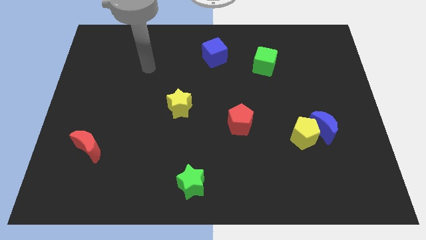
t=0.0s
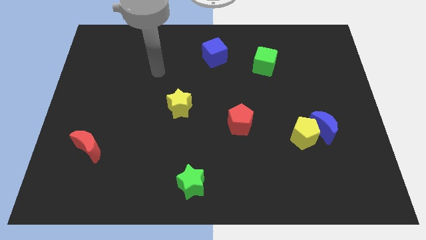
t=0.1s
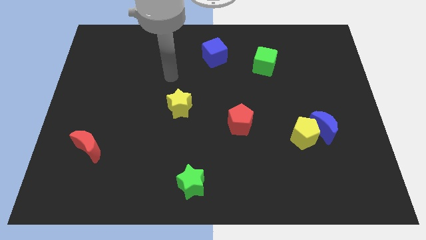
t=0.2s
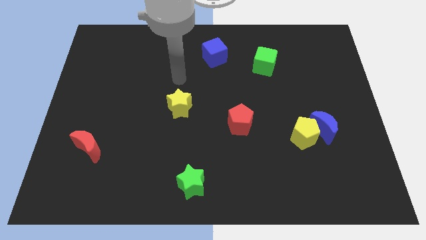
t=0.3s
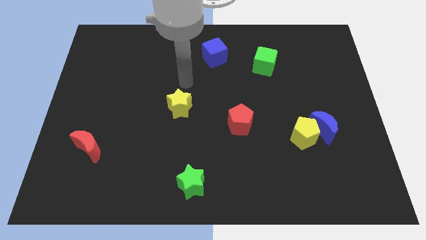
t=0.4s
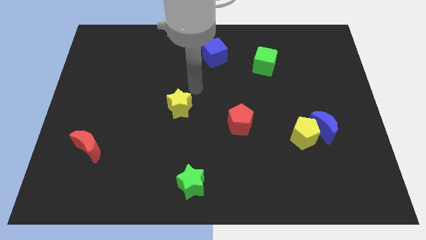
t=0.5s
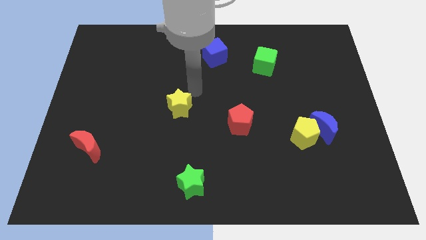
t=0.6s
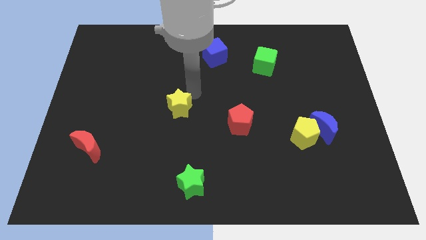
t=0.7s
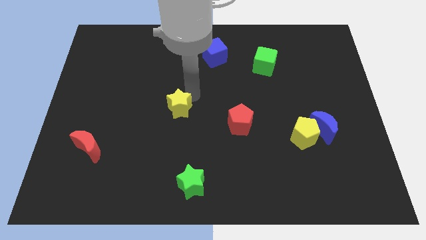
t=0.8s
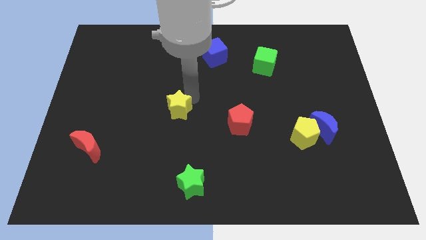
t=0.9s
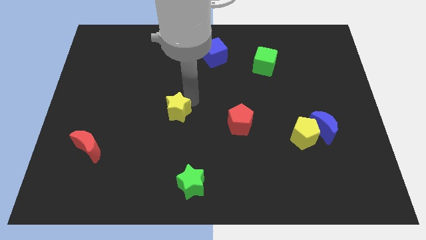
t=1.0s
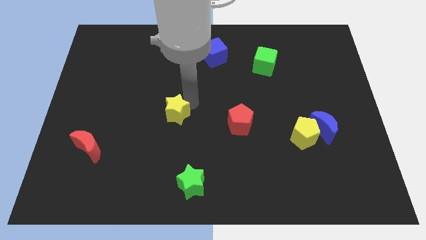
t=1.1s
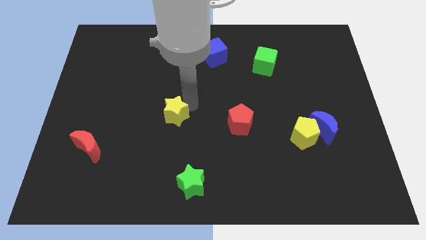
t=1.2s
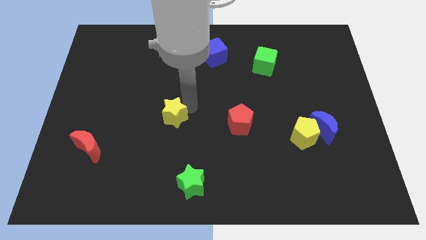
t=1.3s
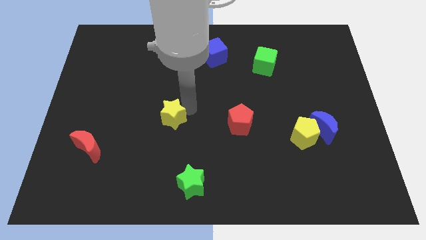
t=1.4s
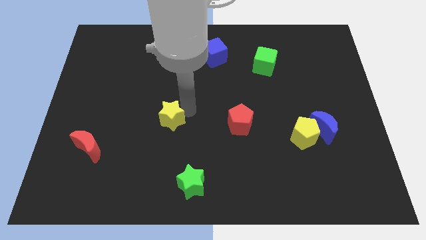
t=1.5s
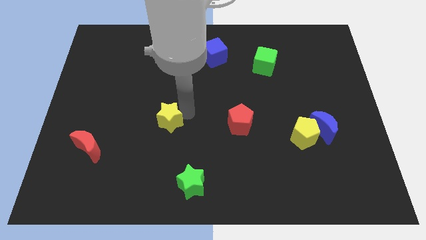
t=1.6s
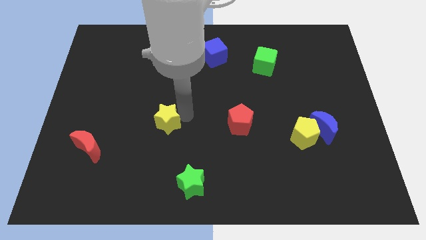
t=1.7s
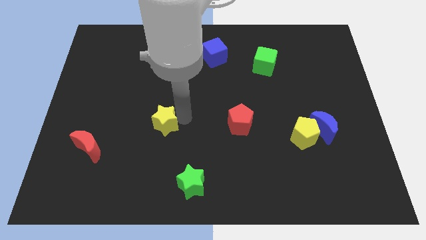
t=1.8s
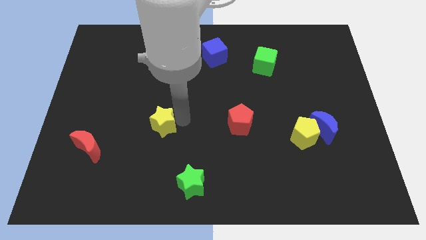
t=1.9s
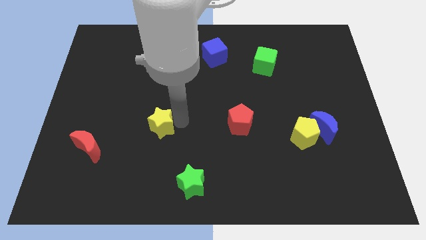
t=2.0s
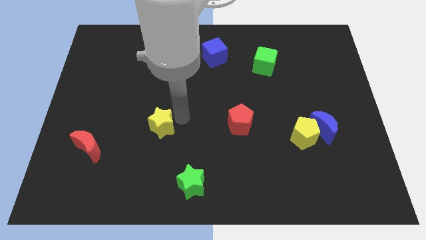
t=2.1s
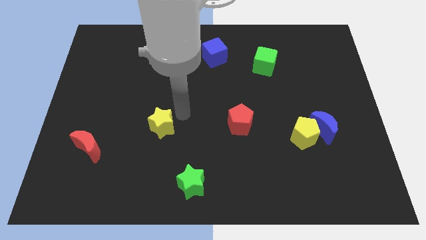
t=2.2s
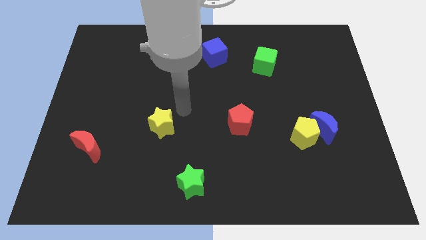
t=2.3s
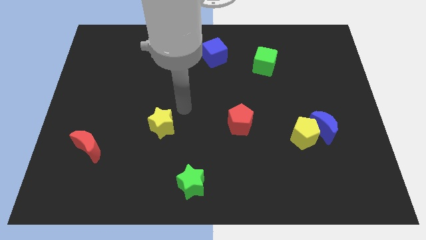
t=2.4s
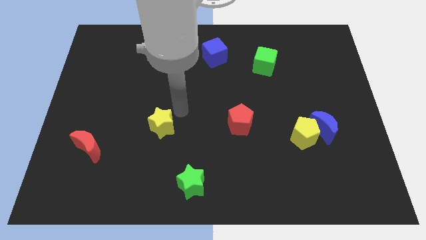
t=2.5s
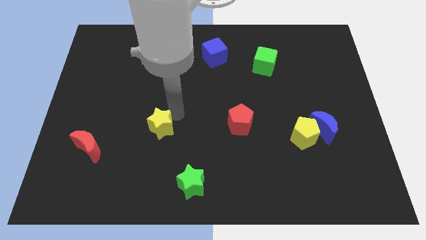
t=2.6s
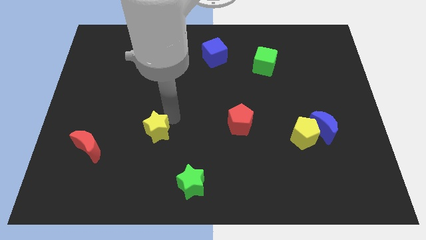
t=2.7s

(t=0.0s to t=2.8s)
move the yellow star downwards and left a bit

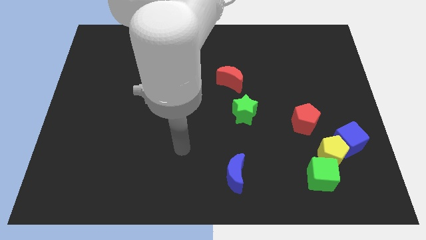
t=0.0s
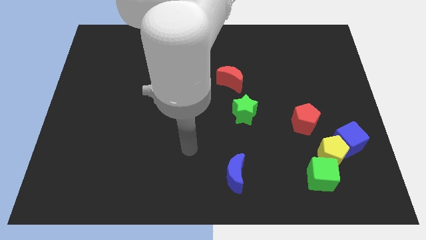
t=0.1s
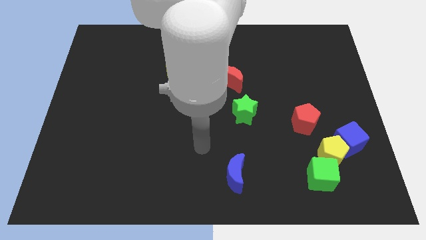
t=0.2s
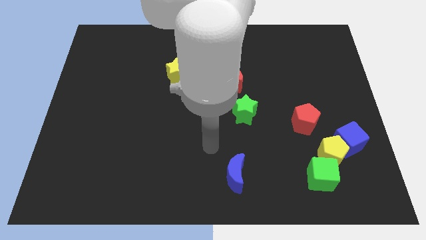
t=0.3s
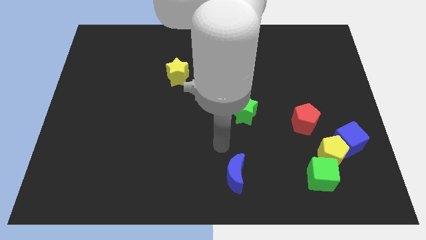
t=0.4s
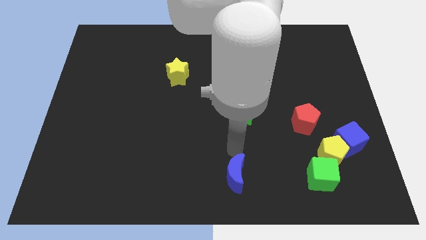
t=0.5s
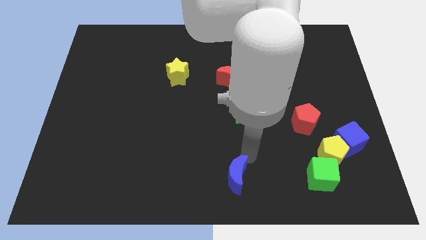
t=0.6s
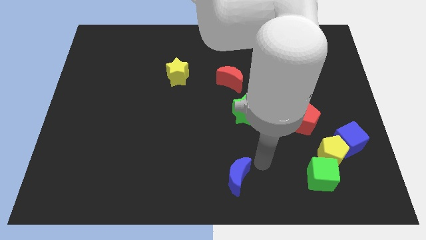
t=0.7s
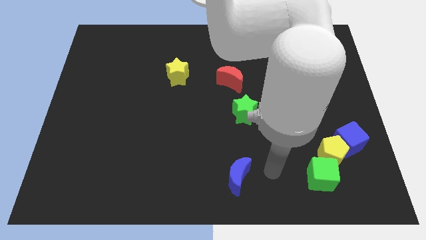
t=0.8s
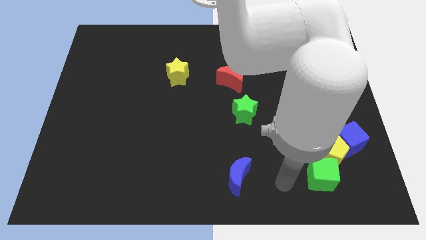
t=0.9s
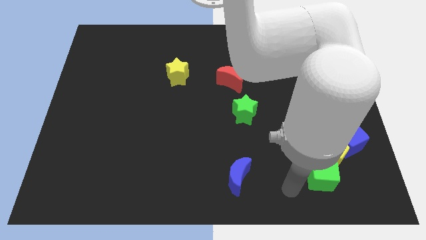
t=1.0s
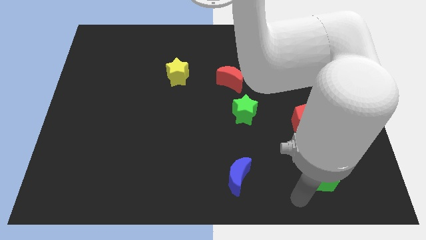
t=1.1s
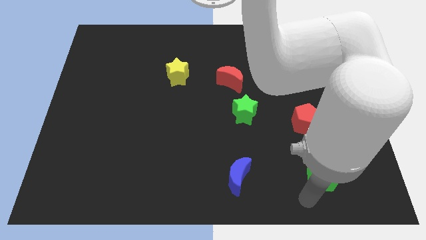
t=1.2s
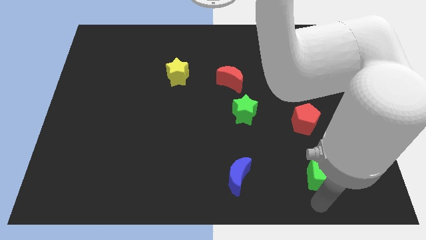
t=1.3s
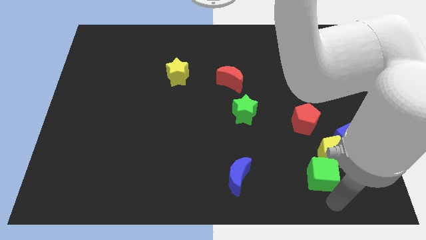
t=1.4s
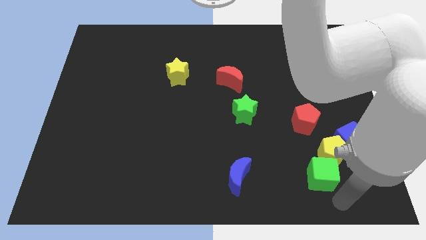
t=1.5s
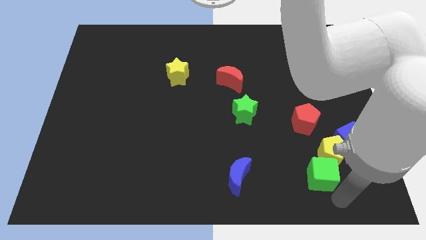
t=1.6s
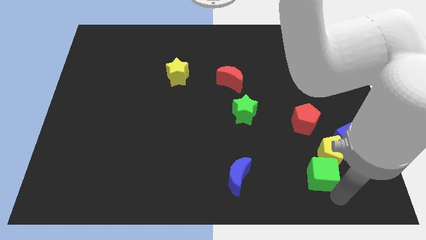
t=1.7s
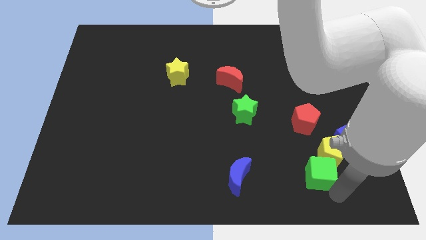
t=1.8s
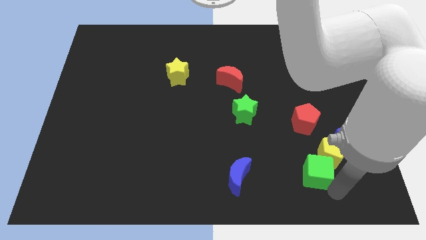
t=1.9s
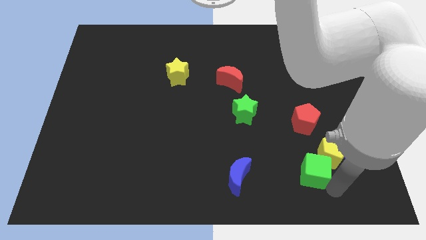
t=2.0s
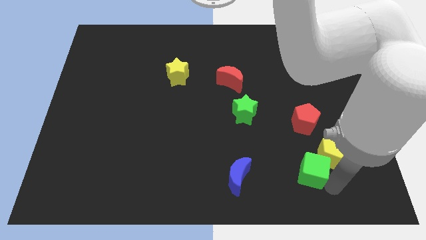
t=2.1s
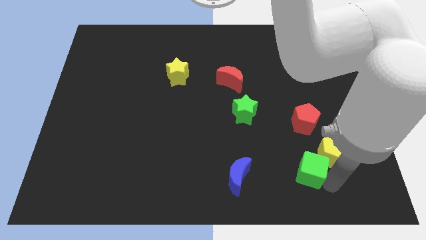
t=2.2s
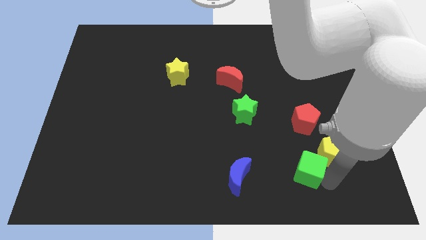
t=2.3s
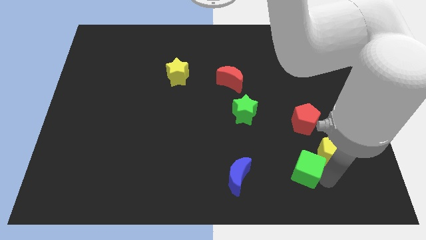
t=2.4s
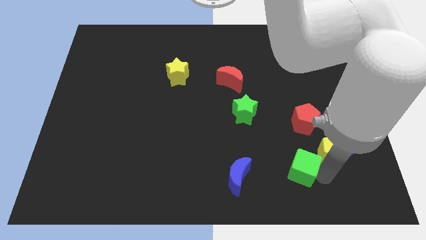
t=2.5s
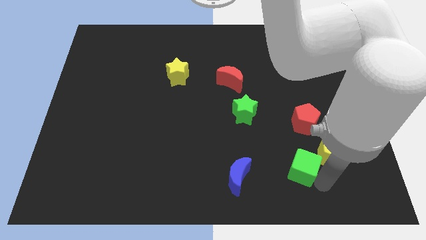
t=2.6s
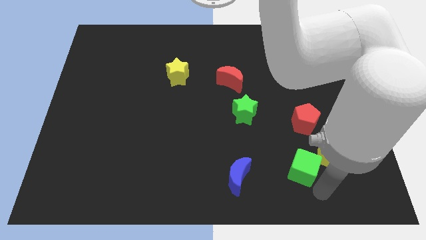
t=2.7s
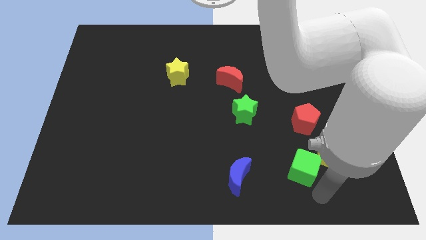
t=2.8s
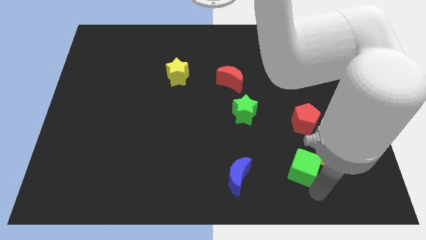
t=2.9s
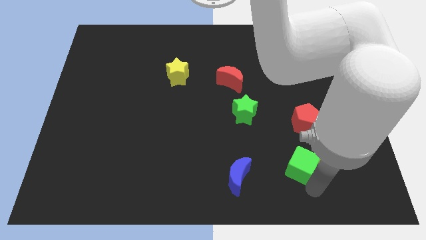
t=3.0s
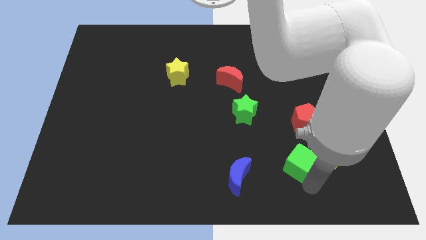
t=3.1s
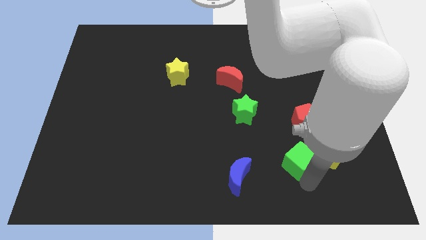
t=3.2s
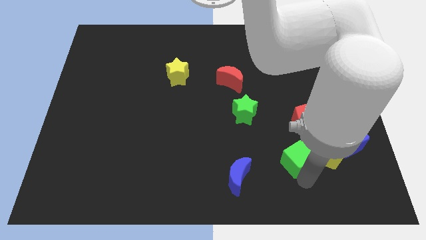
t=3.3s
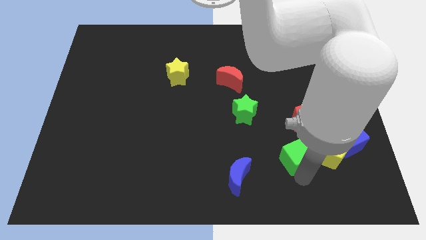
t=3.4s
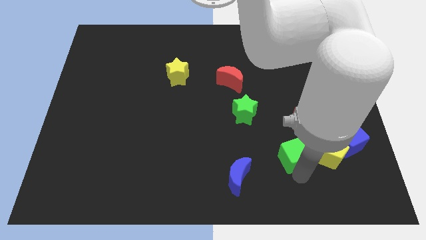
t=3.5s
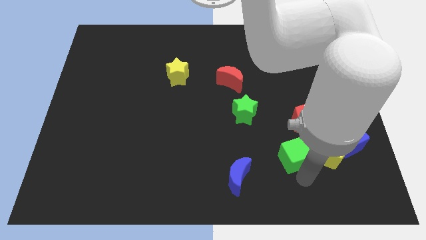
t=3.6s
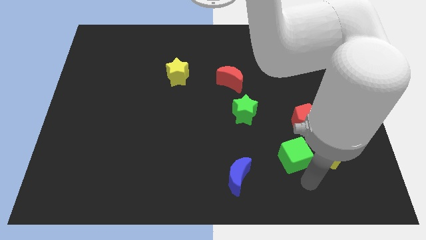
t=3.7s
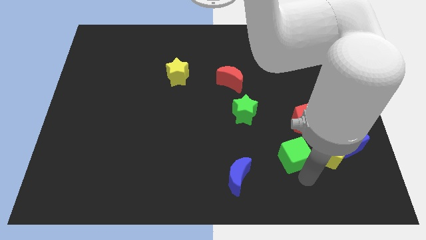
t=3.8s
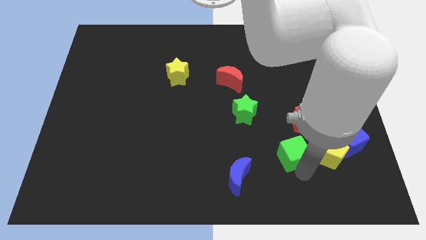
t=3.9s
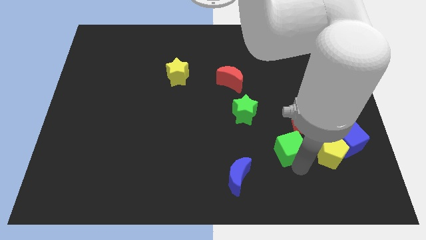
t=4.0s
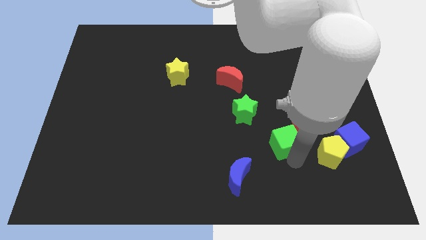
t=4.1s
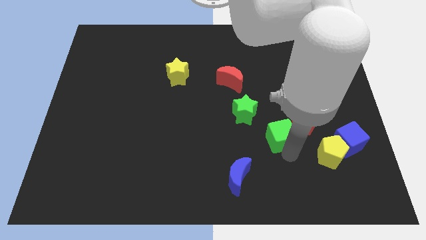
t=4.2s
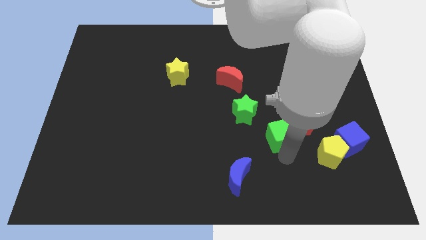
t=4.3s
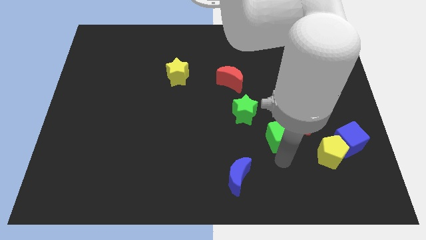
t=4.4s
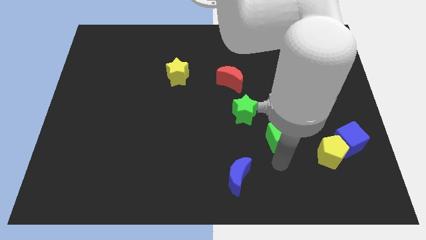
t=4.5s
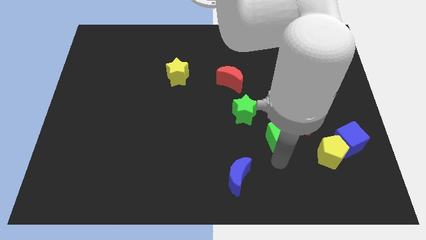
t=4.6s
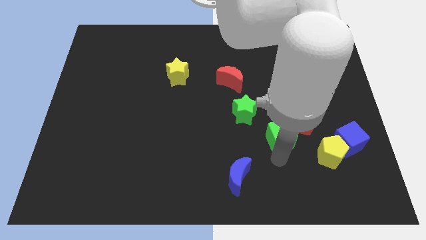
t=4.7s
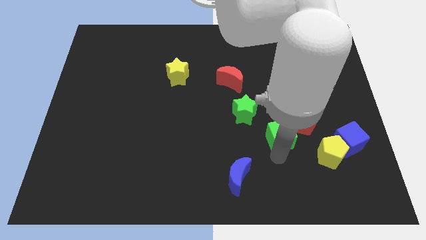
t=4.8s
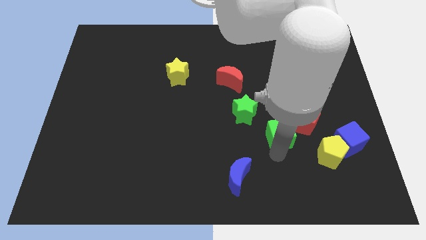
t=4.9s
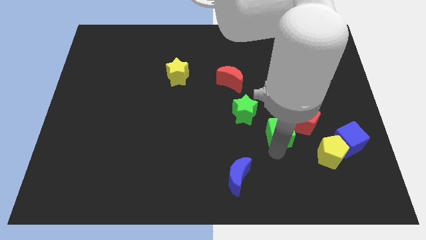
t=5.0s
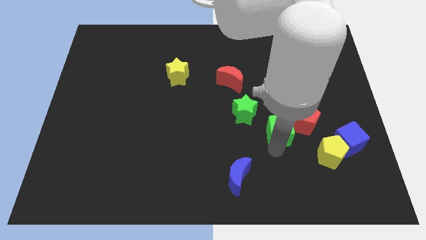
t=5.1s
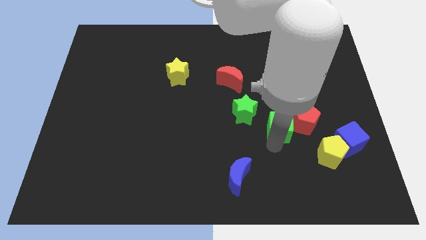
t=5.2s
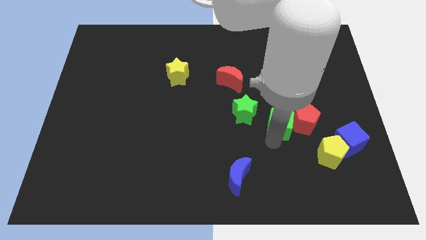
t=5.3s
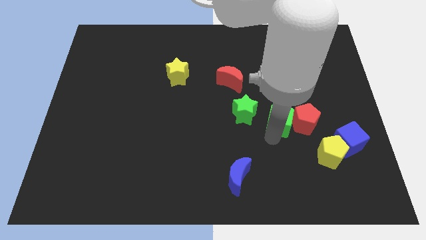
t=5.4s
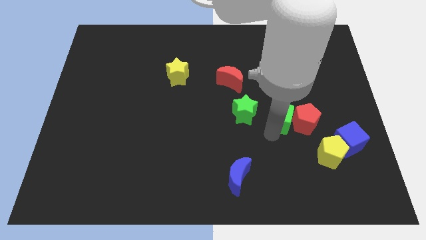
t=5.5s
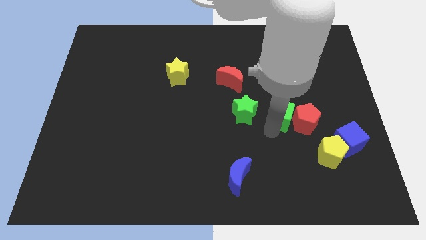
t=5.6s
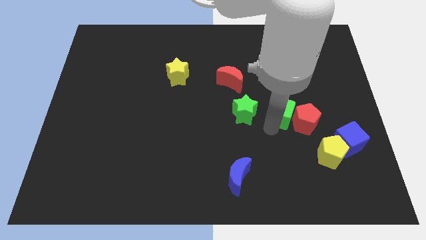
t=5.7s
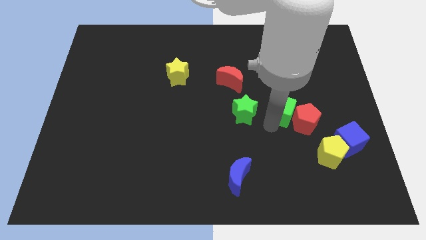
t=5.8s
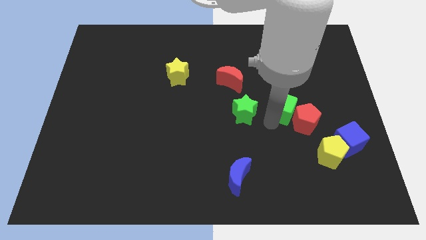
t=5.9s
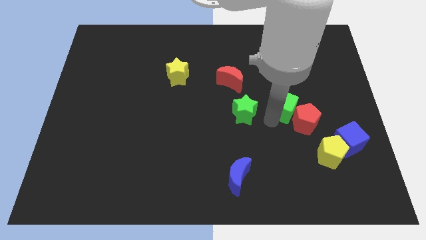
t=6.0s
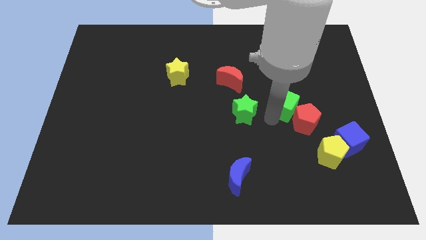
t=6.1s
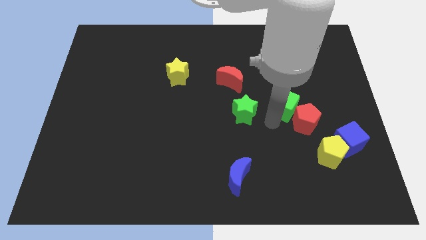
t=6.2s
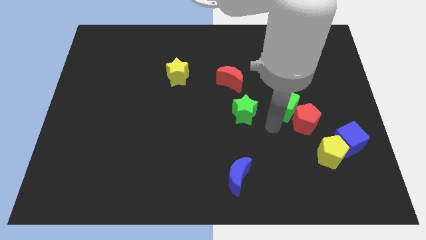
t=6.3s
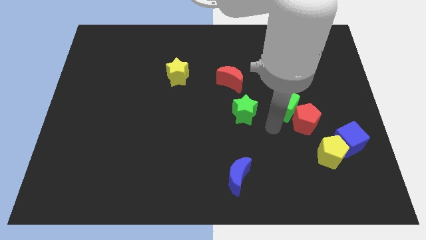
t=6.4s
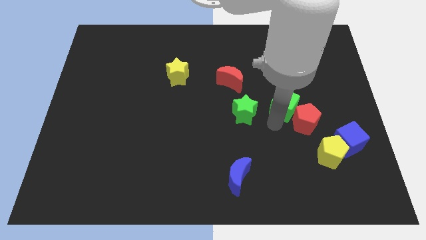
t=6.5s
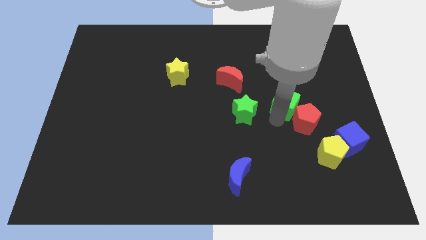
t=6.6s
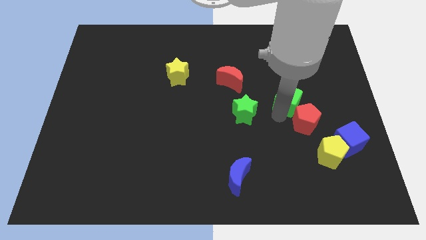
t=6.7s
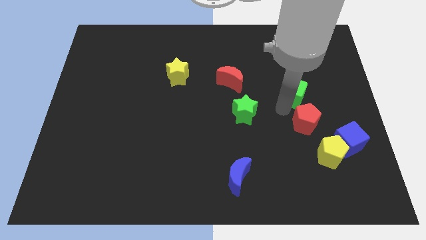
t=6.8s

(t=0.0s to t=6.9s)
slide the green cube upwards
